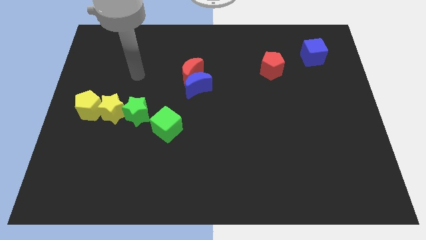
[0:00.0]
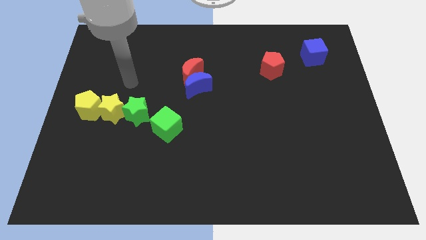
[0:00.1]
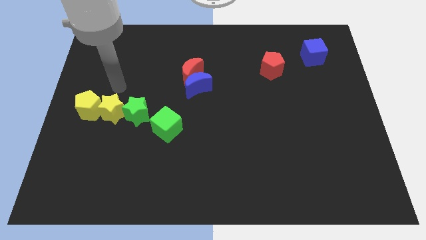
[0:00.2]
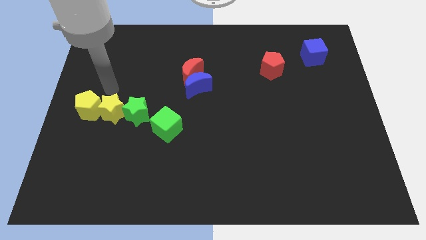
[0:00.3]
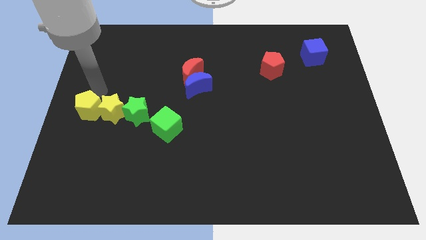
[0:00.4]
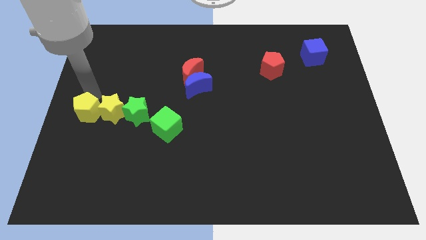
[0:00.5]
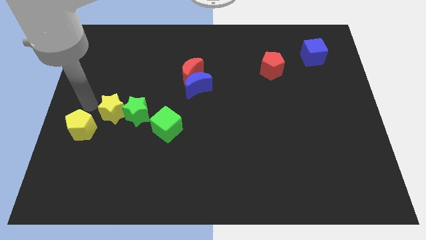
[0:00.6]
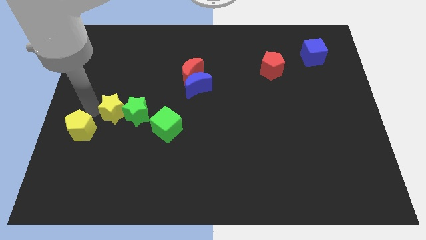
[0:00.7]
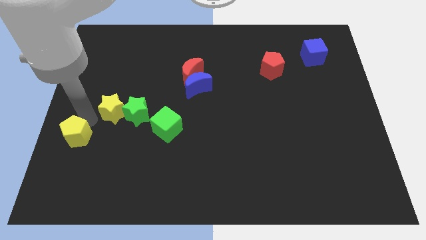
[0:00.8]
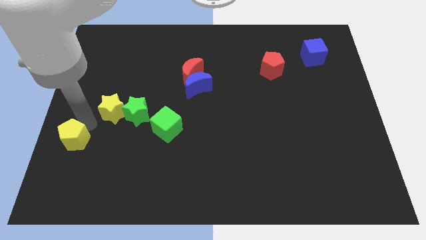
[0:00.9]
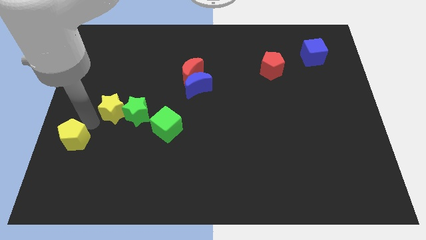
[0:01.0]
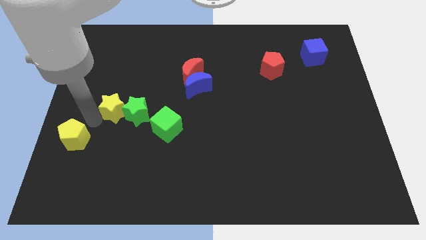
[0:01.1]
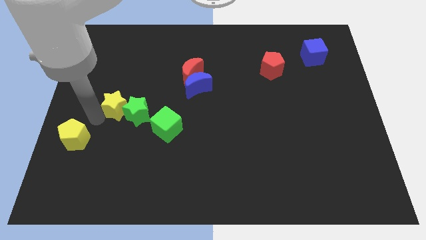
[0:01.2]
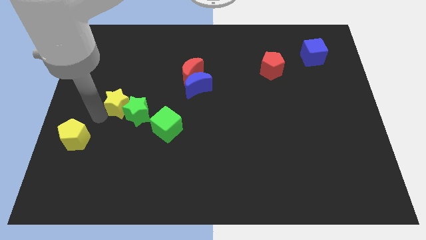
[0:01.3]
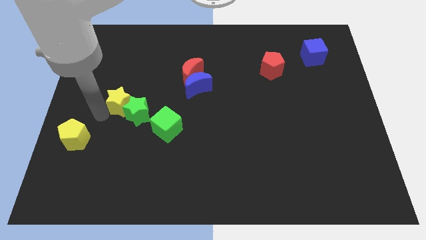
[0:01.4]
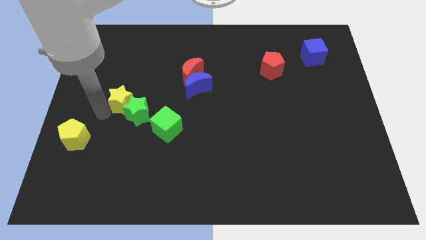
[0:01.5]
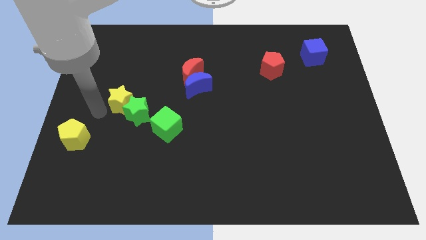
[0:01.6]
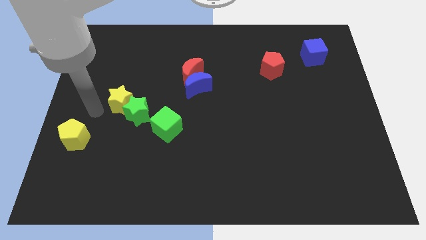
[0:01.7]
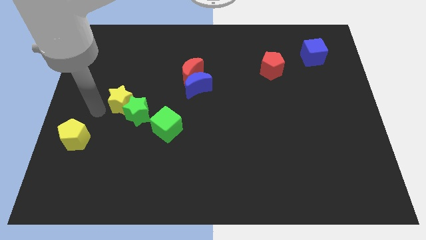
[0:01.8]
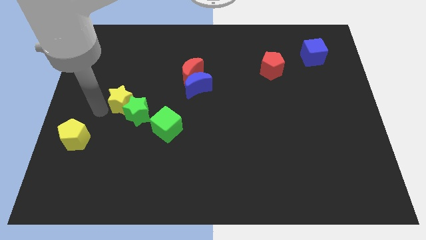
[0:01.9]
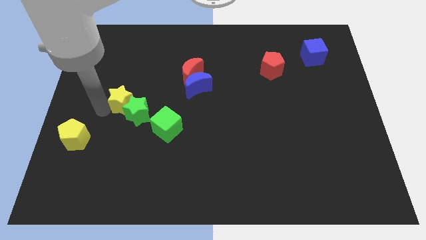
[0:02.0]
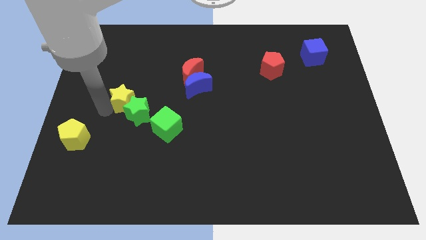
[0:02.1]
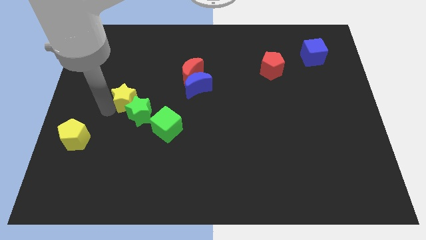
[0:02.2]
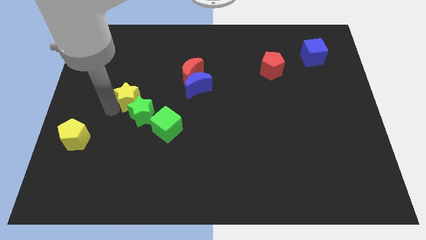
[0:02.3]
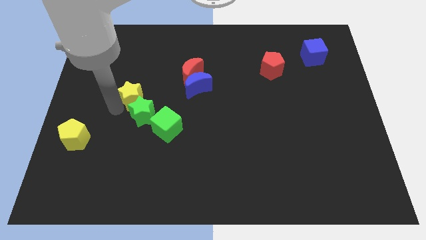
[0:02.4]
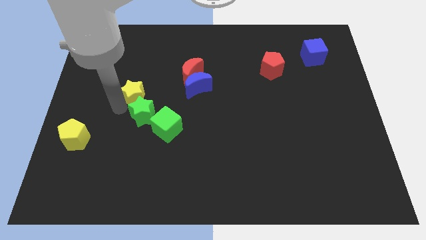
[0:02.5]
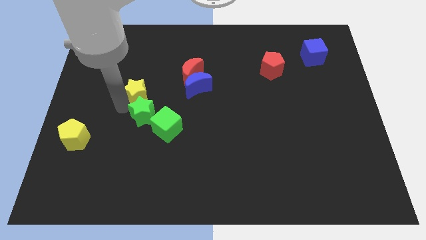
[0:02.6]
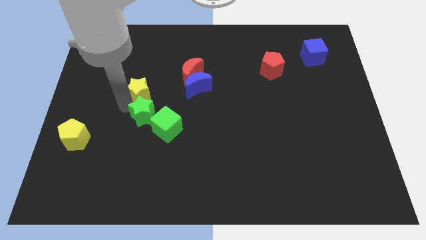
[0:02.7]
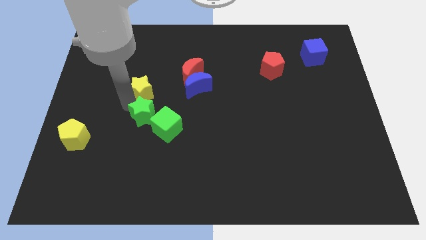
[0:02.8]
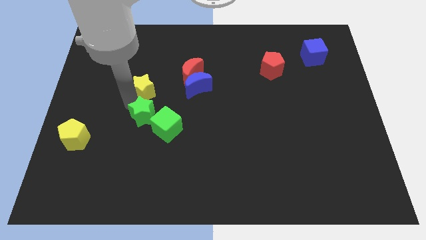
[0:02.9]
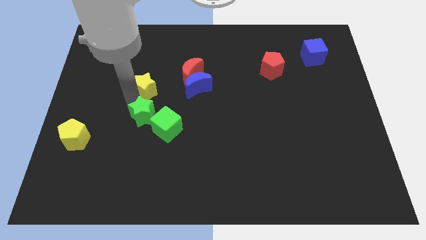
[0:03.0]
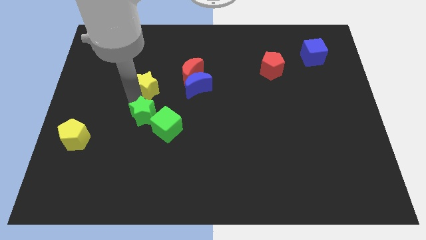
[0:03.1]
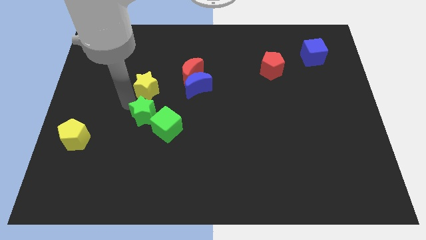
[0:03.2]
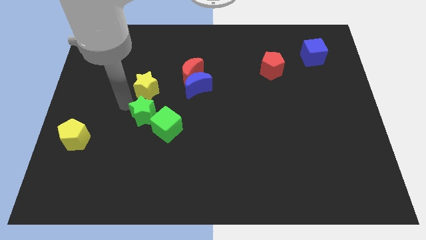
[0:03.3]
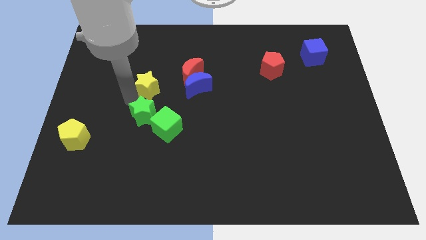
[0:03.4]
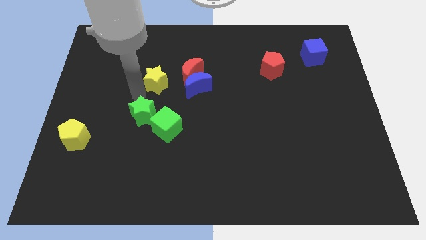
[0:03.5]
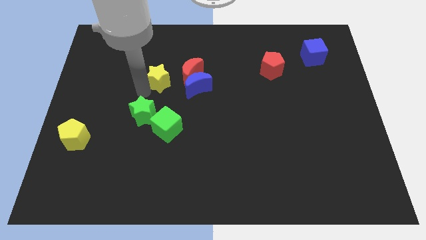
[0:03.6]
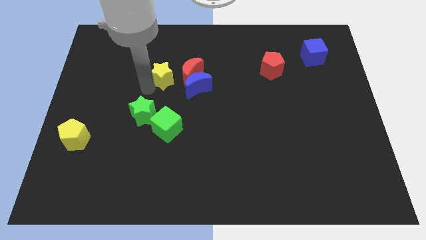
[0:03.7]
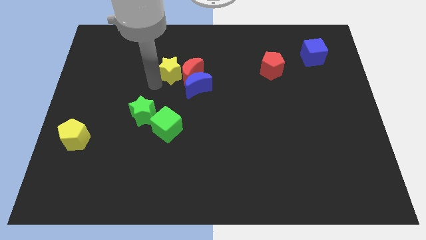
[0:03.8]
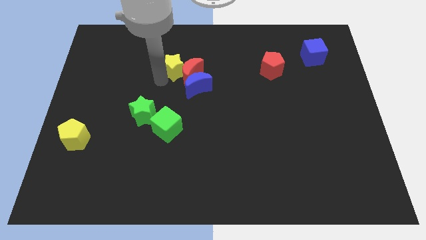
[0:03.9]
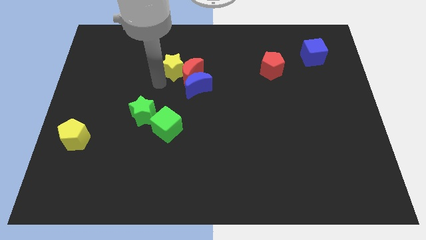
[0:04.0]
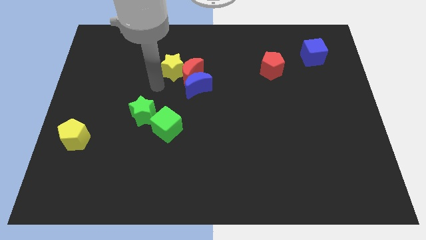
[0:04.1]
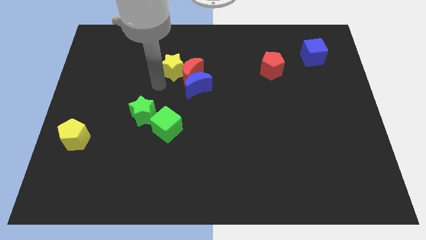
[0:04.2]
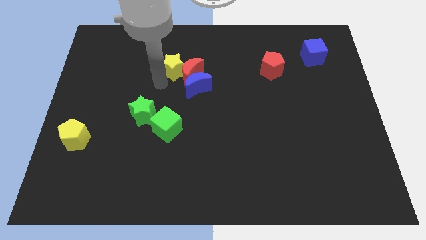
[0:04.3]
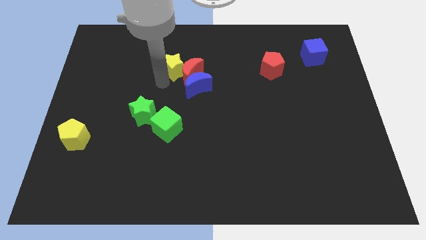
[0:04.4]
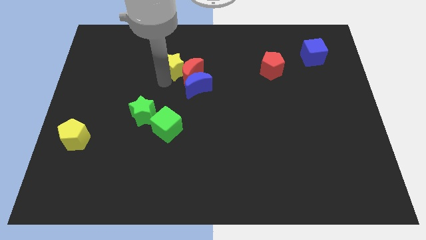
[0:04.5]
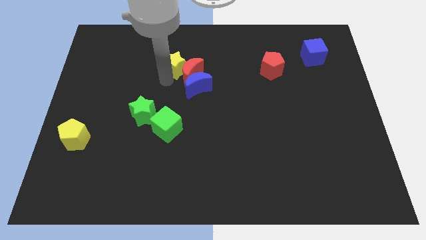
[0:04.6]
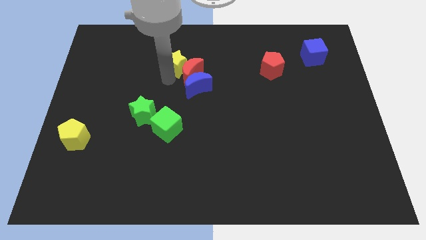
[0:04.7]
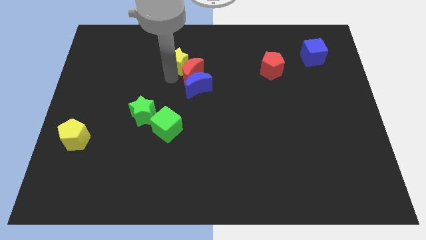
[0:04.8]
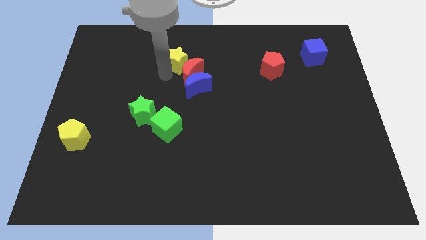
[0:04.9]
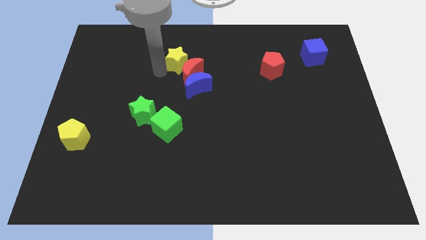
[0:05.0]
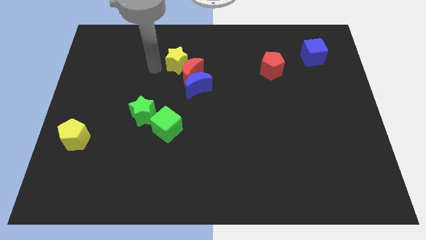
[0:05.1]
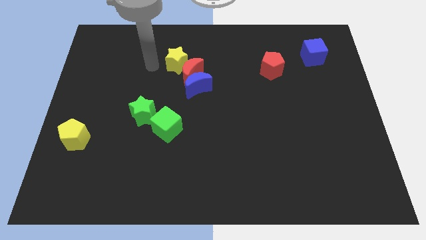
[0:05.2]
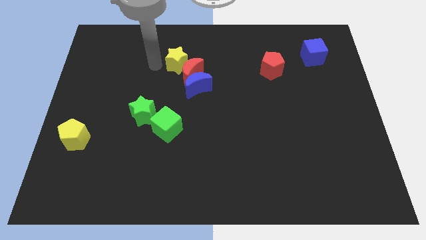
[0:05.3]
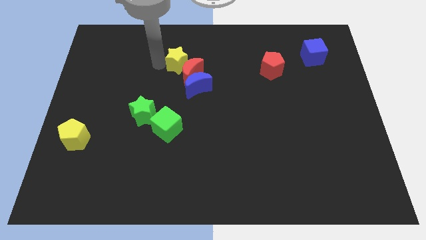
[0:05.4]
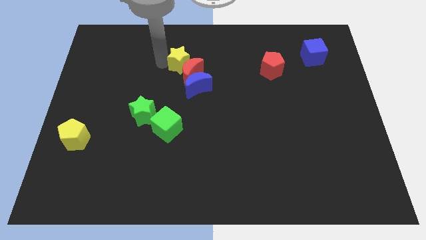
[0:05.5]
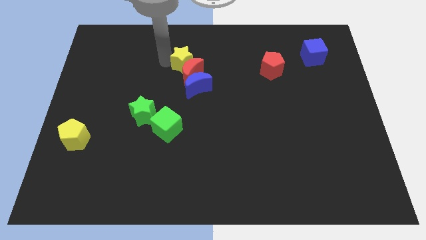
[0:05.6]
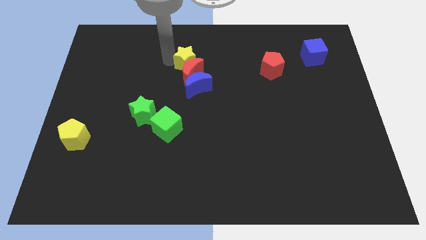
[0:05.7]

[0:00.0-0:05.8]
push the yellow star to the top right of the red moon

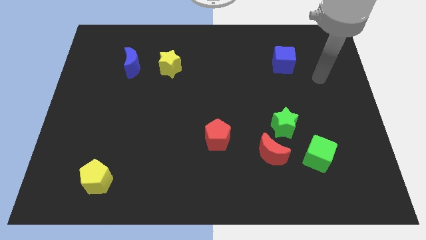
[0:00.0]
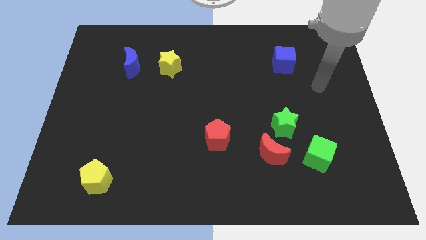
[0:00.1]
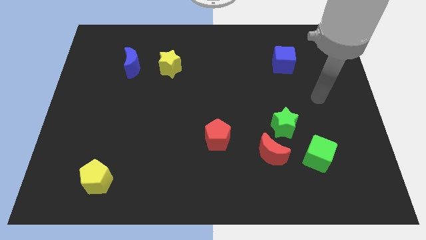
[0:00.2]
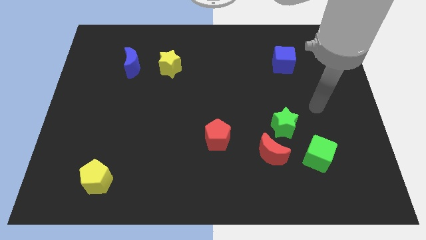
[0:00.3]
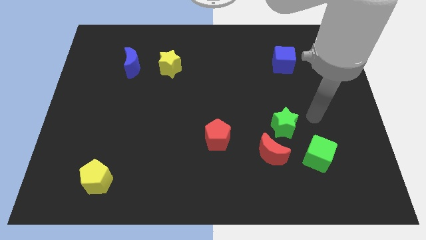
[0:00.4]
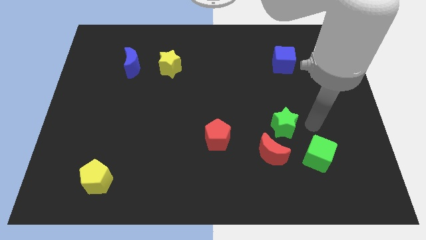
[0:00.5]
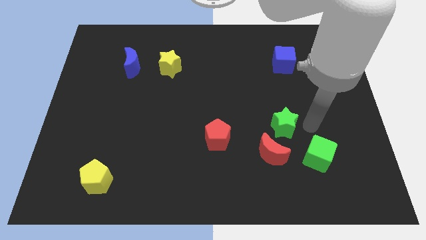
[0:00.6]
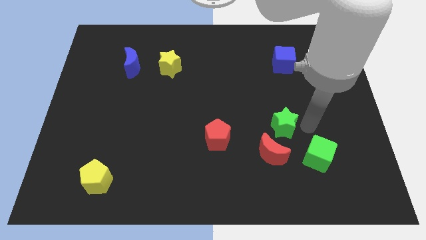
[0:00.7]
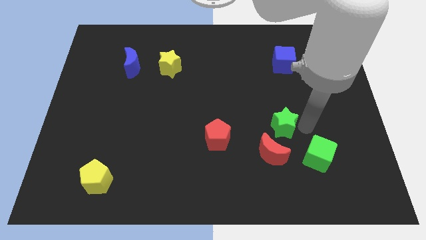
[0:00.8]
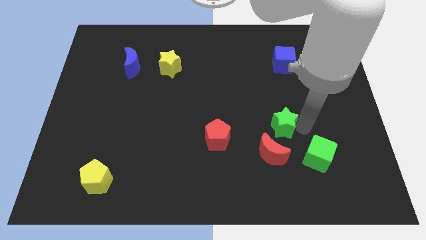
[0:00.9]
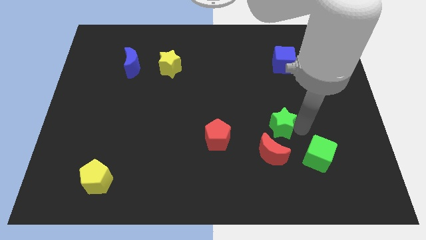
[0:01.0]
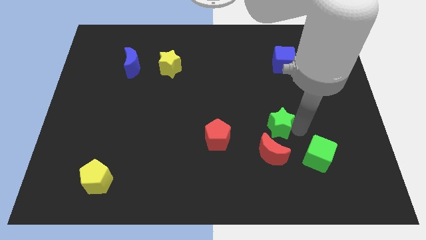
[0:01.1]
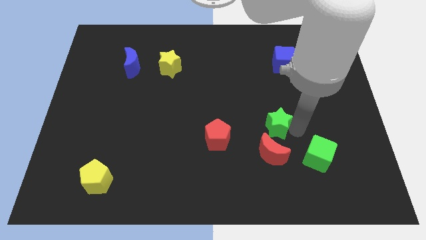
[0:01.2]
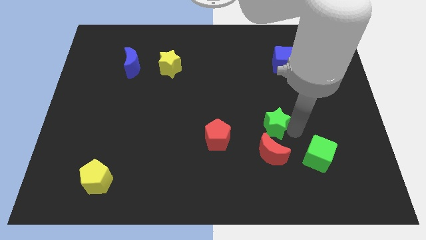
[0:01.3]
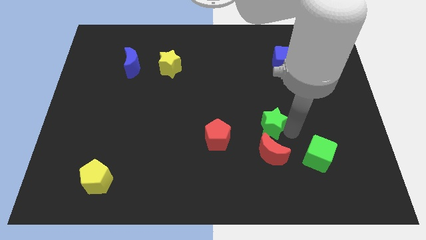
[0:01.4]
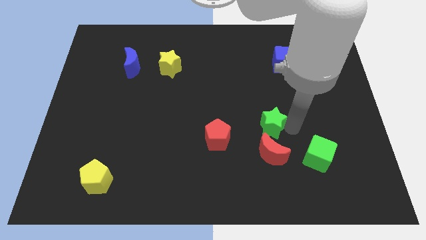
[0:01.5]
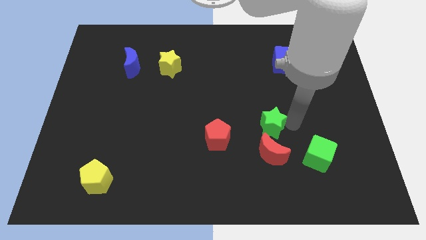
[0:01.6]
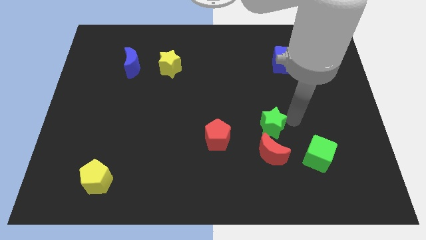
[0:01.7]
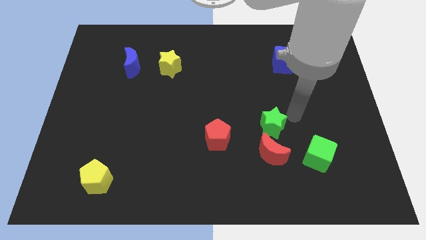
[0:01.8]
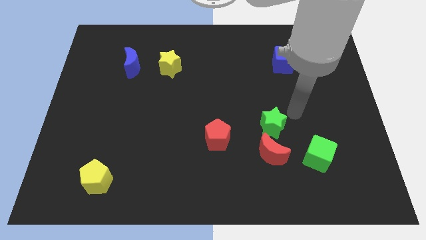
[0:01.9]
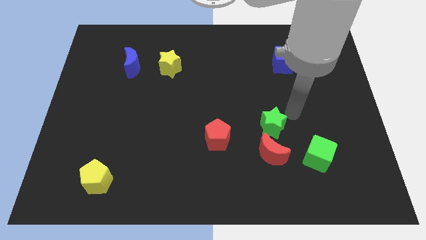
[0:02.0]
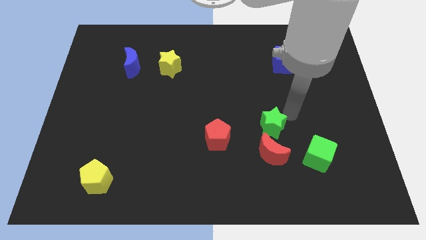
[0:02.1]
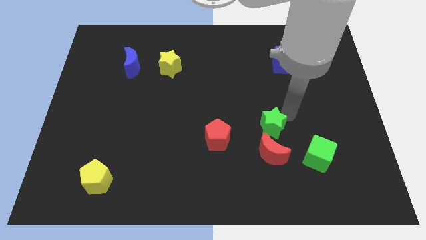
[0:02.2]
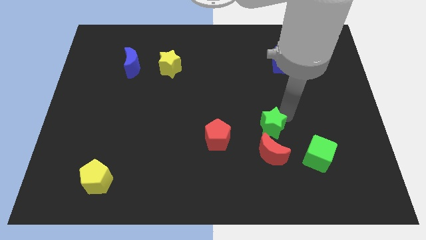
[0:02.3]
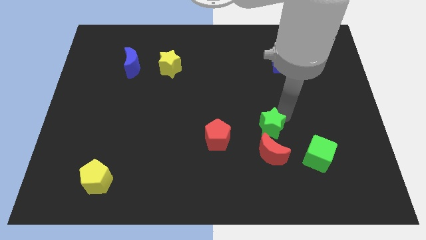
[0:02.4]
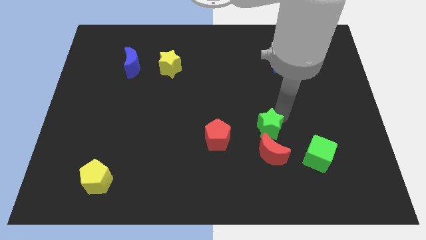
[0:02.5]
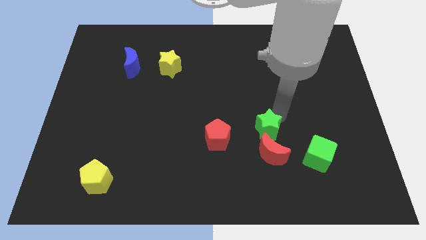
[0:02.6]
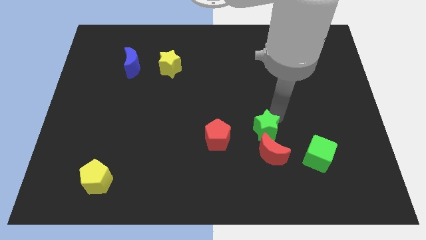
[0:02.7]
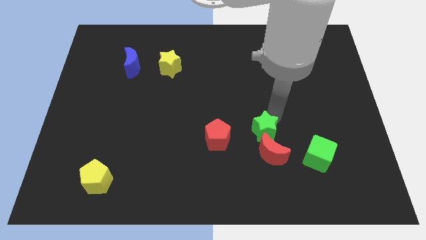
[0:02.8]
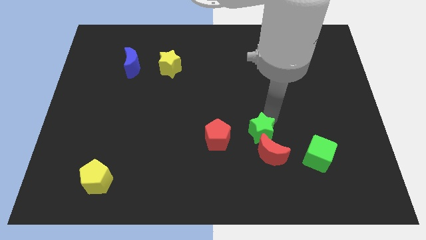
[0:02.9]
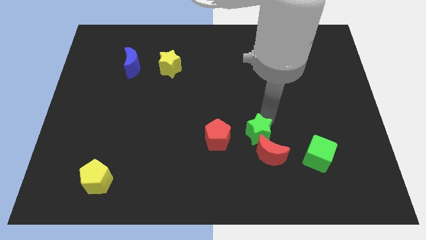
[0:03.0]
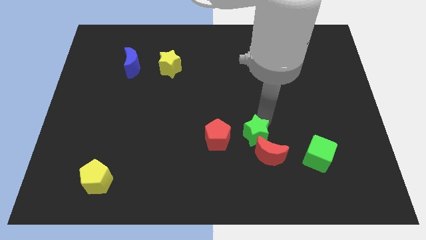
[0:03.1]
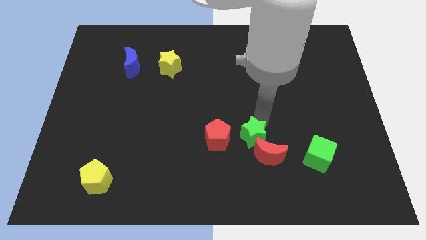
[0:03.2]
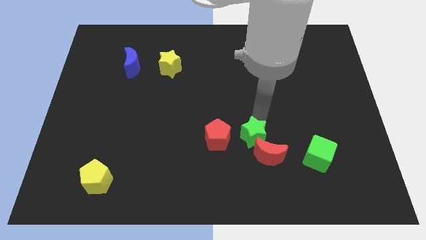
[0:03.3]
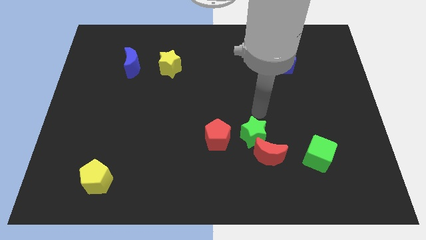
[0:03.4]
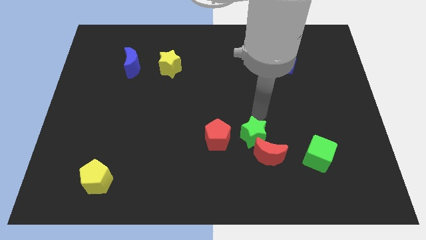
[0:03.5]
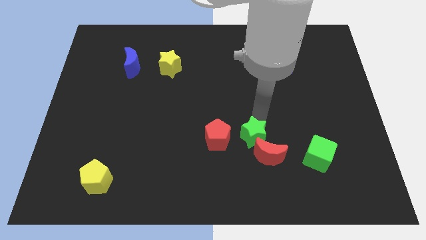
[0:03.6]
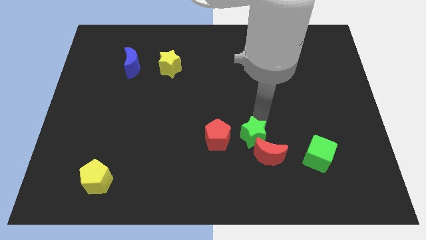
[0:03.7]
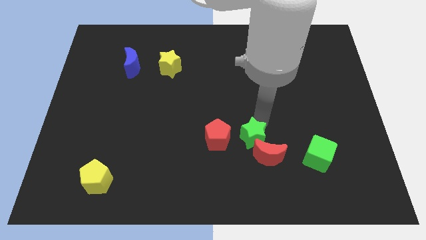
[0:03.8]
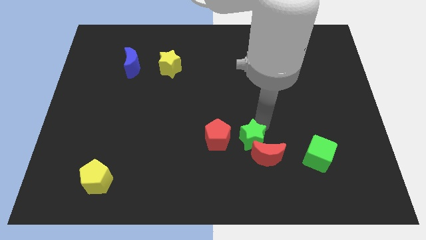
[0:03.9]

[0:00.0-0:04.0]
push the green star left of the green cube
